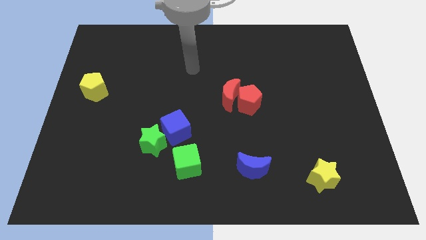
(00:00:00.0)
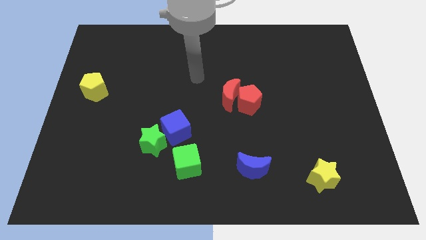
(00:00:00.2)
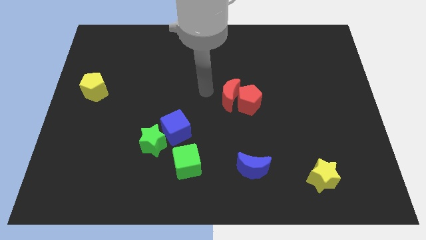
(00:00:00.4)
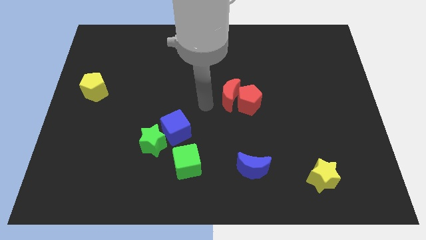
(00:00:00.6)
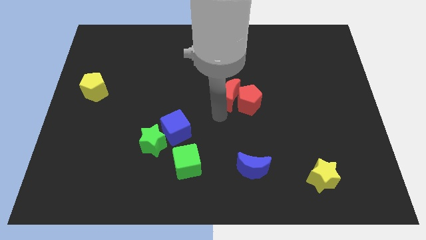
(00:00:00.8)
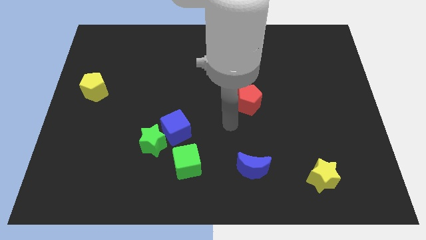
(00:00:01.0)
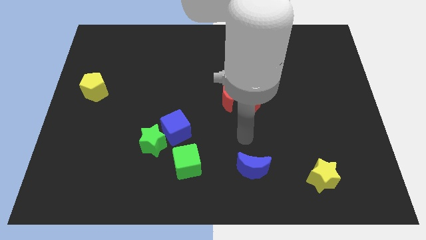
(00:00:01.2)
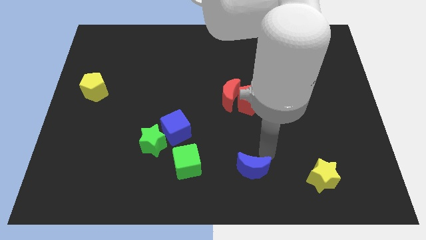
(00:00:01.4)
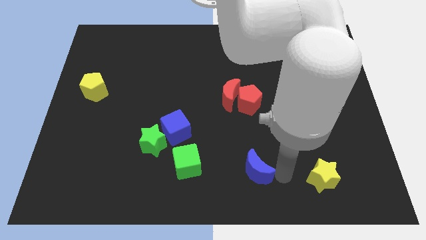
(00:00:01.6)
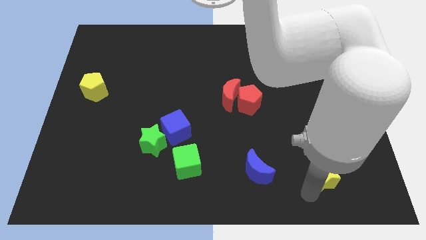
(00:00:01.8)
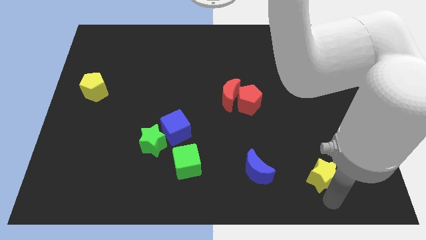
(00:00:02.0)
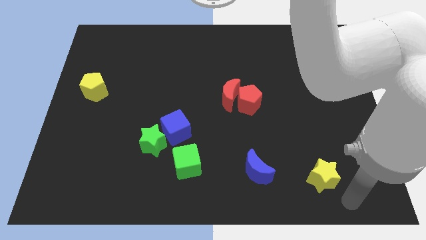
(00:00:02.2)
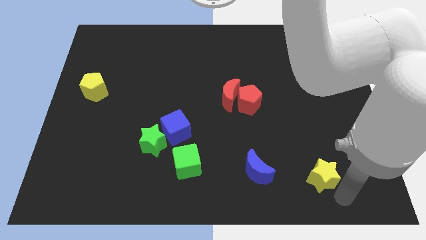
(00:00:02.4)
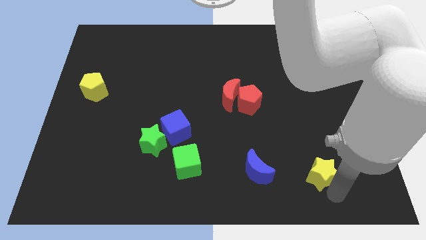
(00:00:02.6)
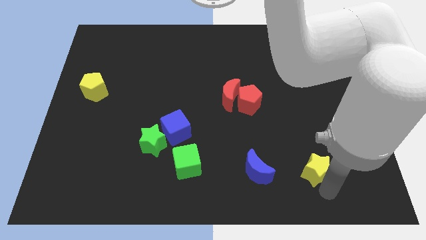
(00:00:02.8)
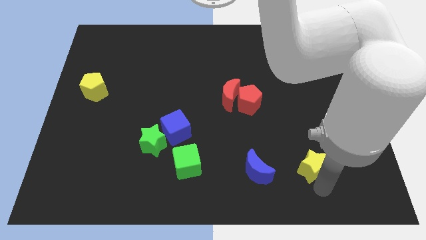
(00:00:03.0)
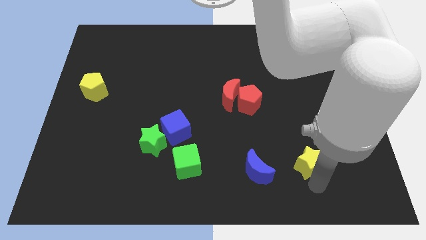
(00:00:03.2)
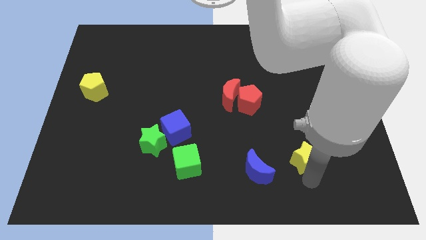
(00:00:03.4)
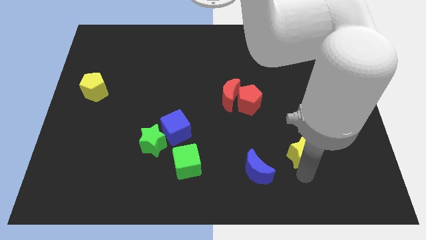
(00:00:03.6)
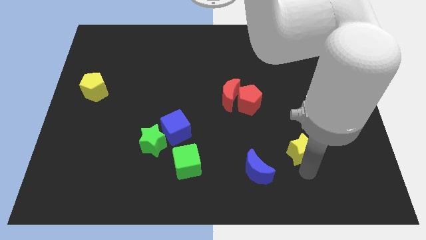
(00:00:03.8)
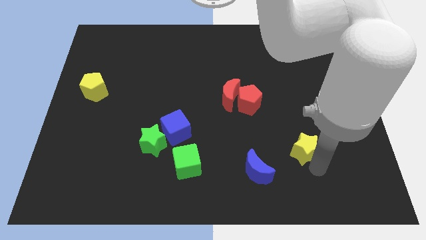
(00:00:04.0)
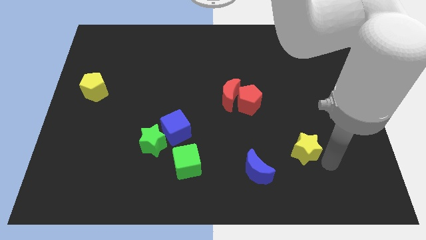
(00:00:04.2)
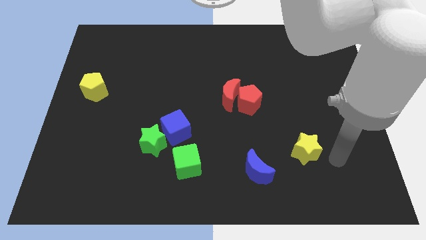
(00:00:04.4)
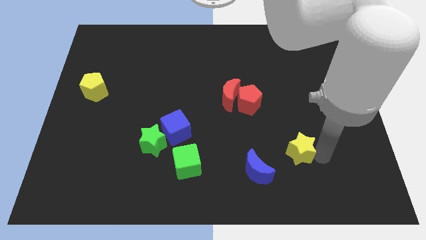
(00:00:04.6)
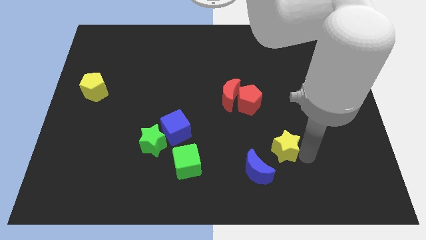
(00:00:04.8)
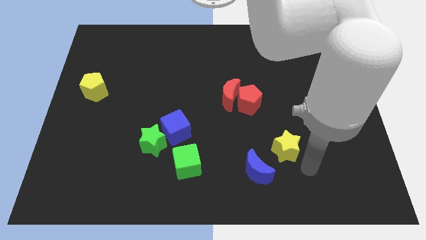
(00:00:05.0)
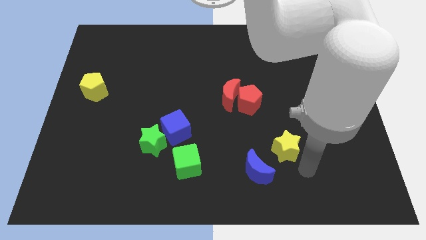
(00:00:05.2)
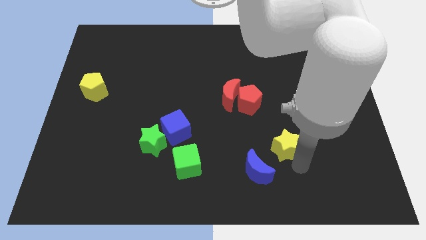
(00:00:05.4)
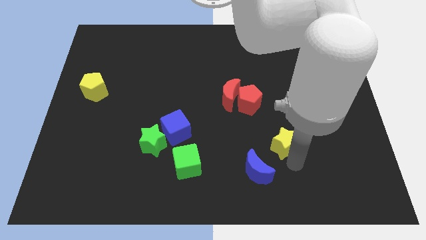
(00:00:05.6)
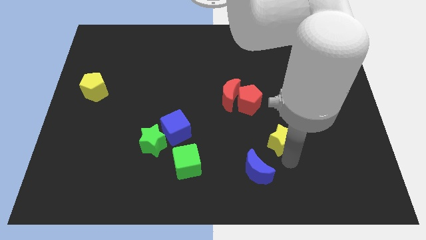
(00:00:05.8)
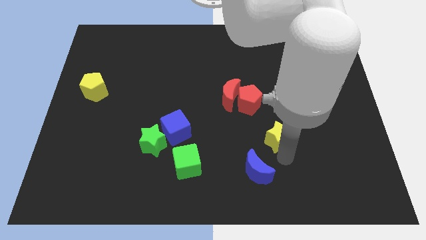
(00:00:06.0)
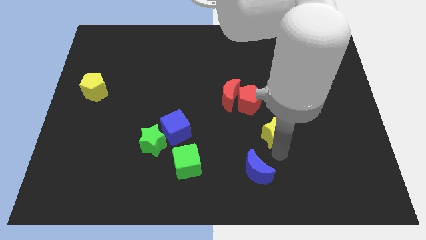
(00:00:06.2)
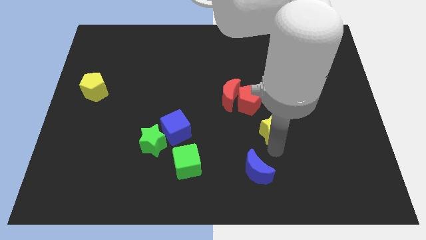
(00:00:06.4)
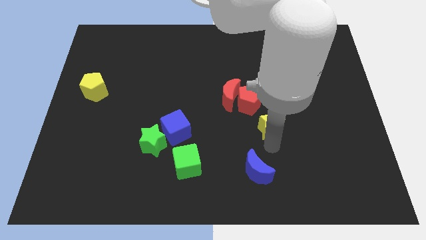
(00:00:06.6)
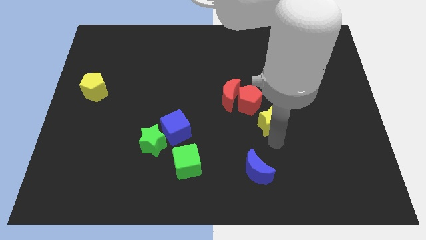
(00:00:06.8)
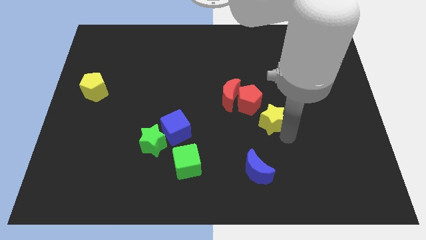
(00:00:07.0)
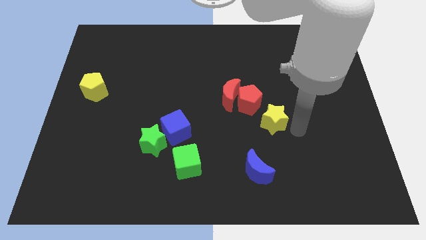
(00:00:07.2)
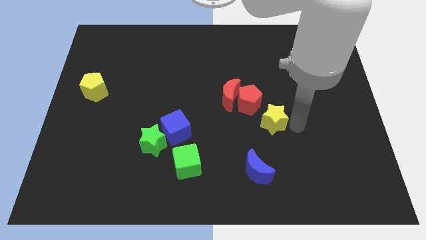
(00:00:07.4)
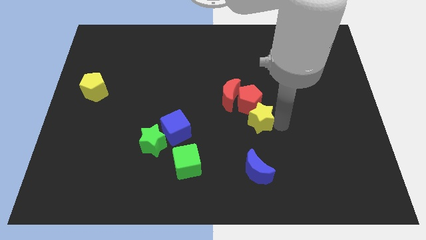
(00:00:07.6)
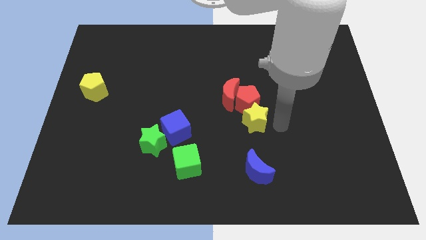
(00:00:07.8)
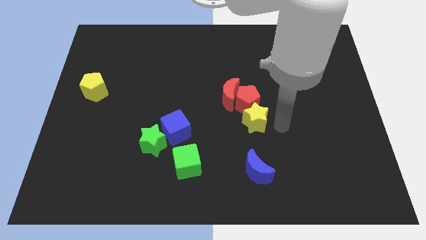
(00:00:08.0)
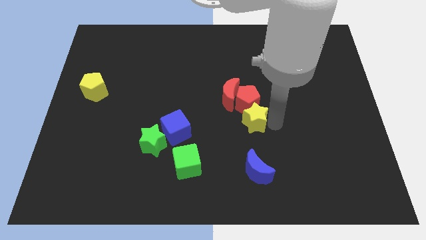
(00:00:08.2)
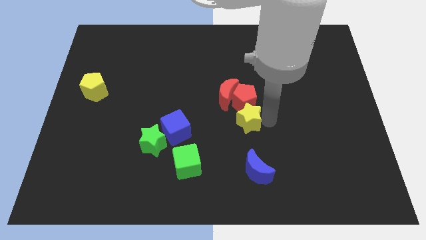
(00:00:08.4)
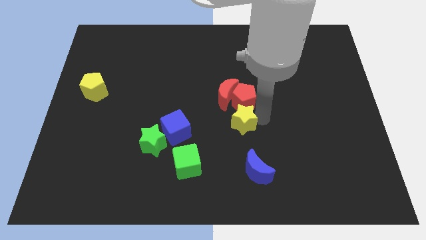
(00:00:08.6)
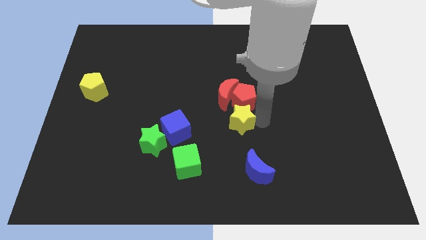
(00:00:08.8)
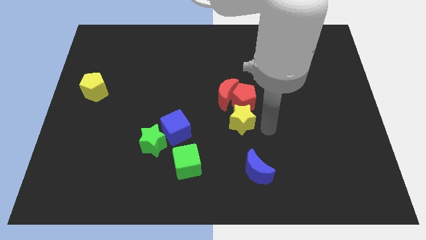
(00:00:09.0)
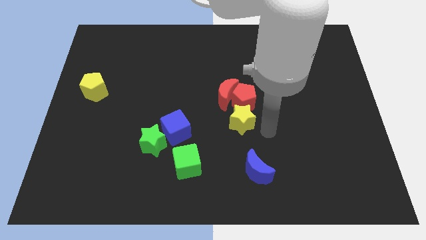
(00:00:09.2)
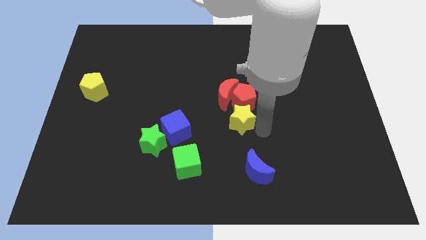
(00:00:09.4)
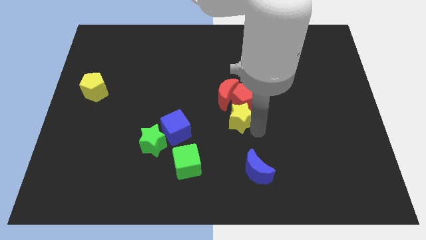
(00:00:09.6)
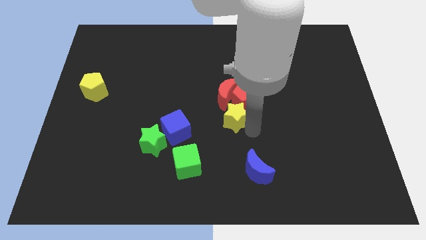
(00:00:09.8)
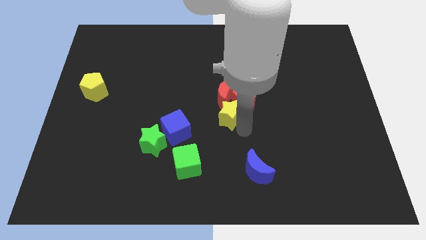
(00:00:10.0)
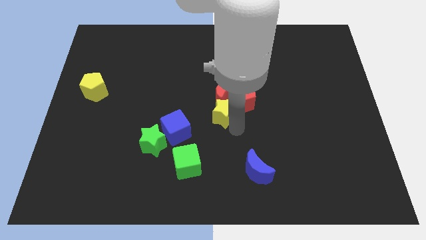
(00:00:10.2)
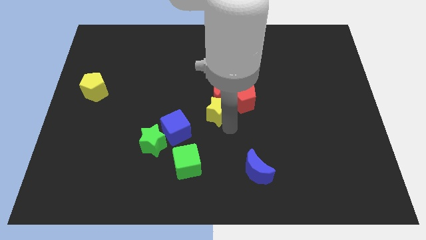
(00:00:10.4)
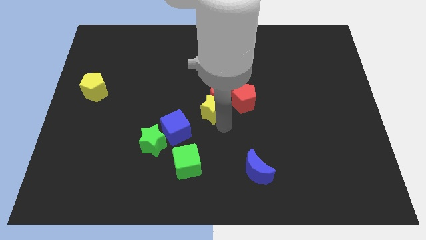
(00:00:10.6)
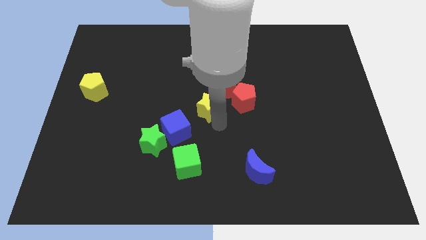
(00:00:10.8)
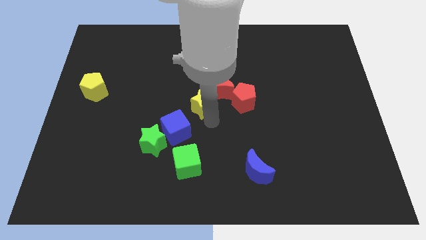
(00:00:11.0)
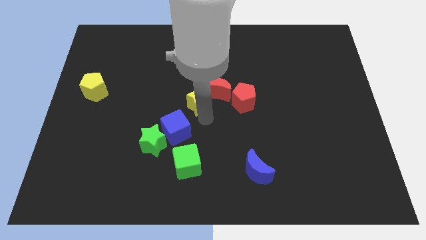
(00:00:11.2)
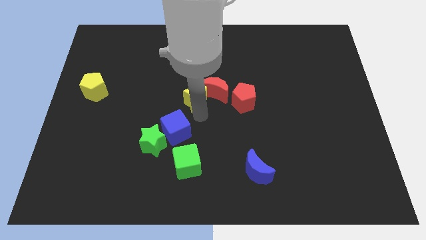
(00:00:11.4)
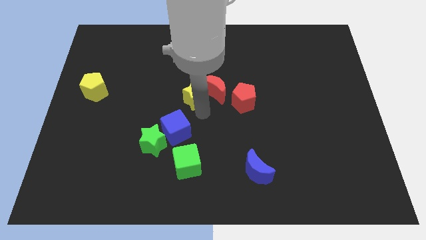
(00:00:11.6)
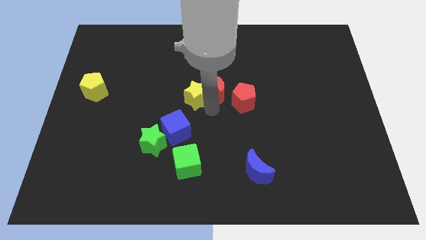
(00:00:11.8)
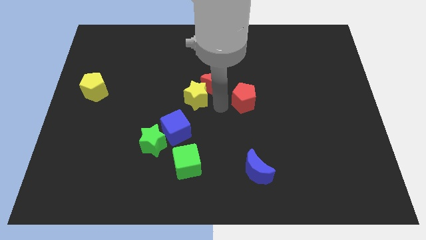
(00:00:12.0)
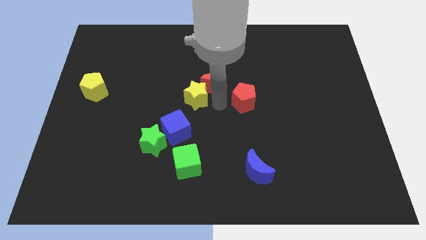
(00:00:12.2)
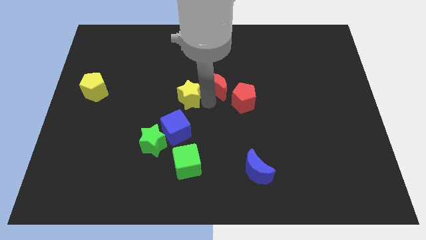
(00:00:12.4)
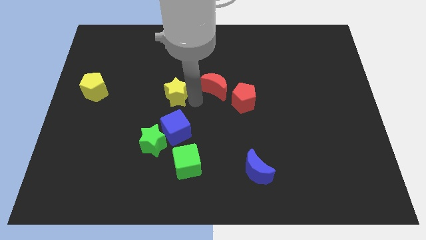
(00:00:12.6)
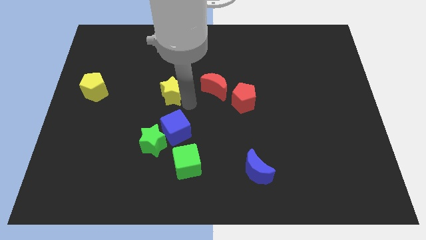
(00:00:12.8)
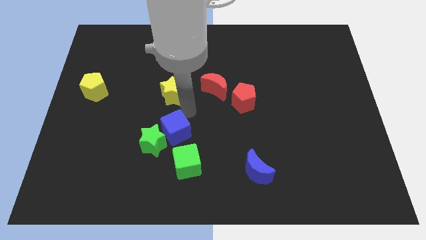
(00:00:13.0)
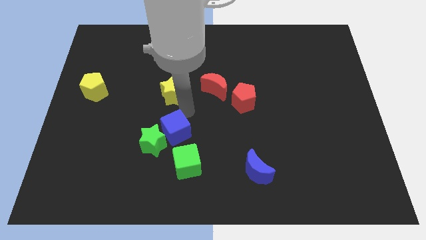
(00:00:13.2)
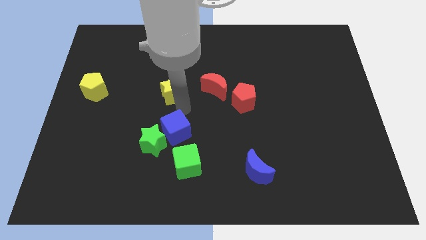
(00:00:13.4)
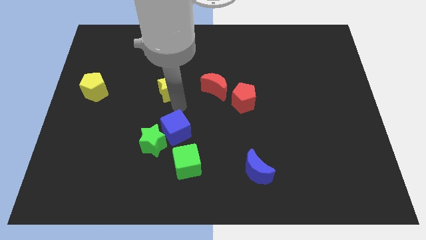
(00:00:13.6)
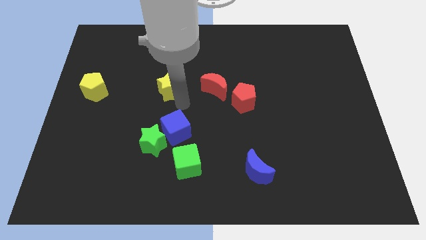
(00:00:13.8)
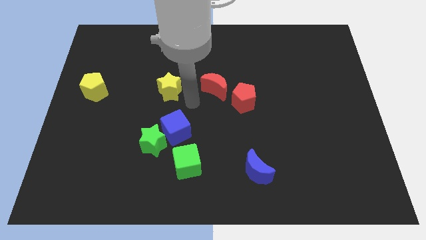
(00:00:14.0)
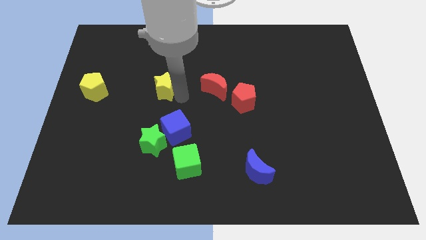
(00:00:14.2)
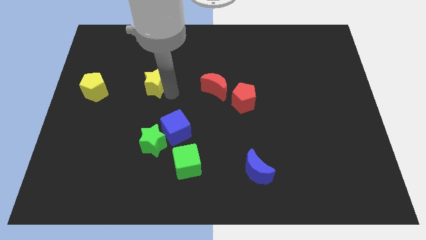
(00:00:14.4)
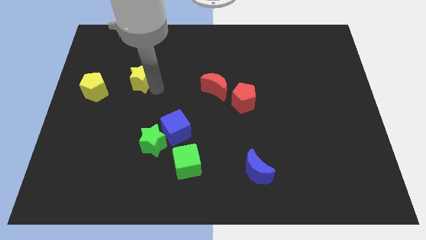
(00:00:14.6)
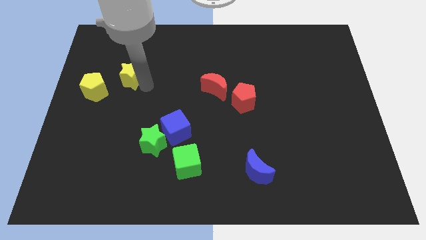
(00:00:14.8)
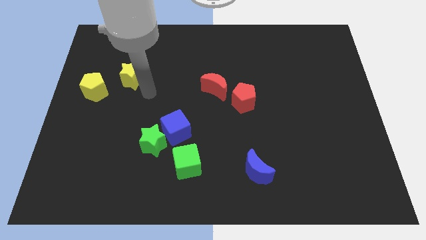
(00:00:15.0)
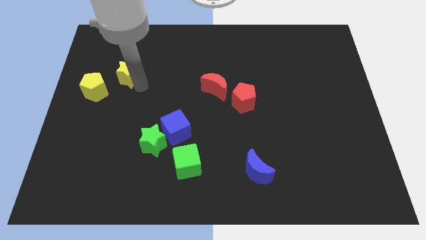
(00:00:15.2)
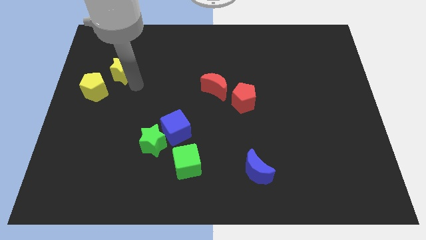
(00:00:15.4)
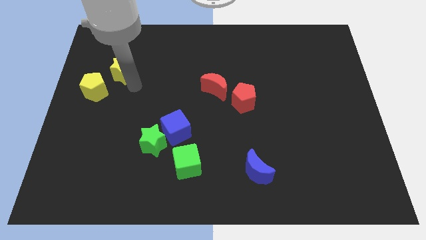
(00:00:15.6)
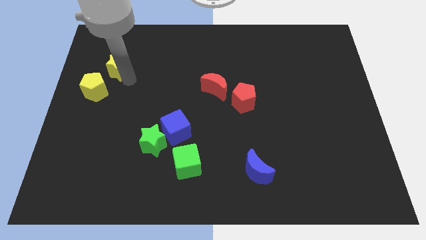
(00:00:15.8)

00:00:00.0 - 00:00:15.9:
slide the yellow star to the top side of the yellow pentagon
